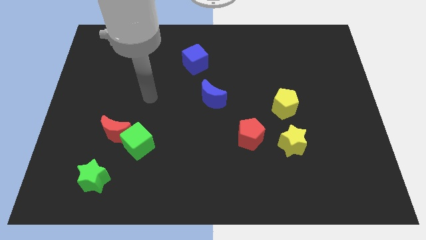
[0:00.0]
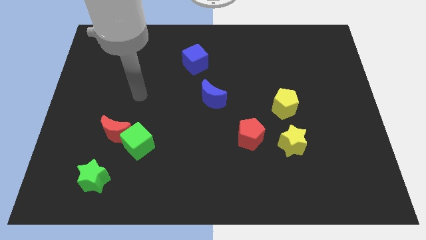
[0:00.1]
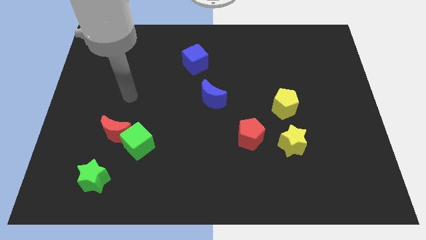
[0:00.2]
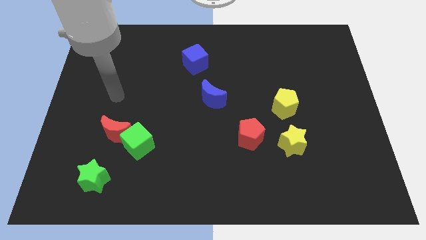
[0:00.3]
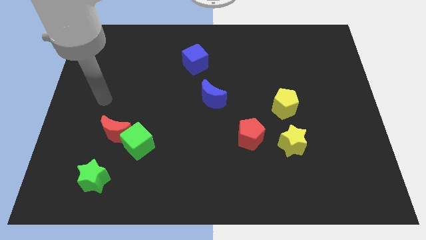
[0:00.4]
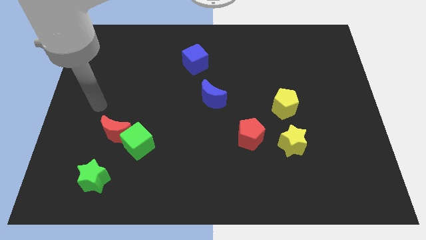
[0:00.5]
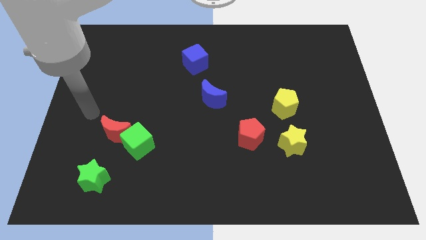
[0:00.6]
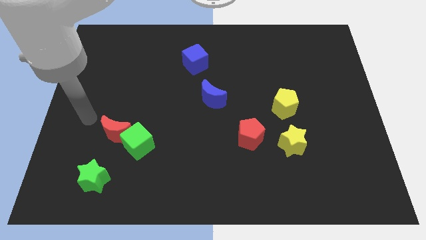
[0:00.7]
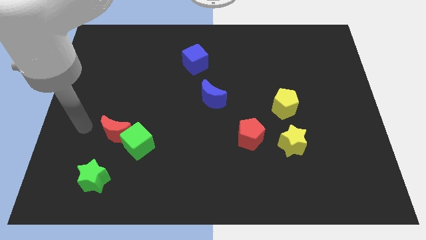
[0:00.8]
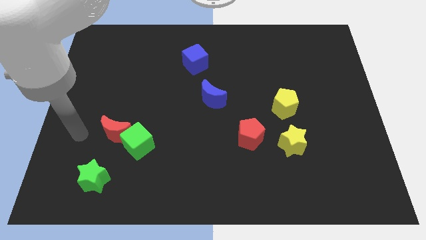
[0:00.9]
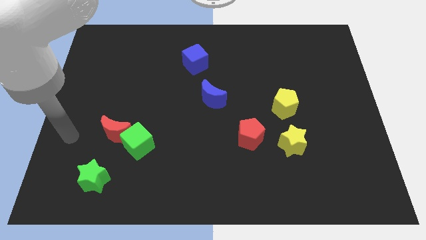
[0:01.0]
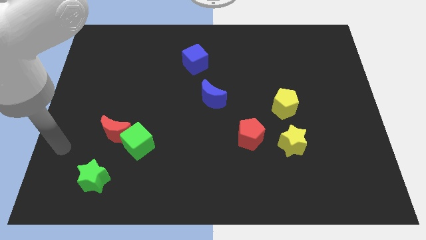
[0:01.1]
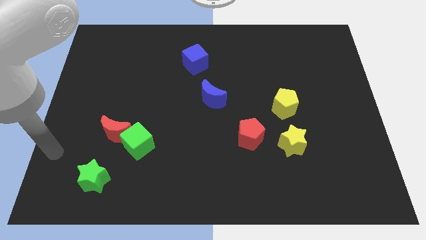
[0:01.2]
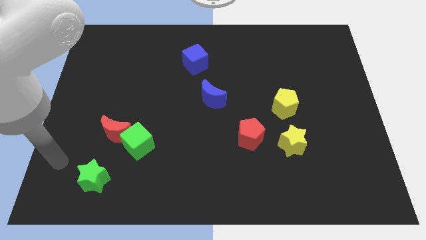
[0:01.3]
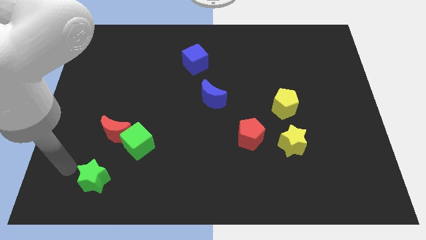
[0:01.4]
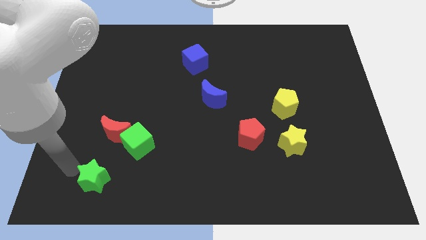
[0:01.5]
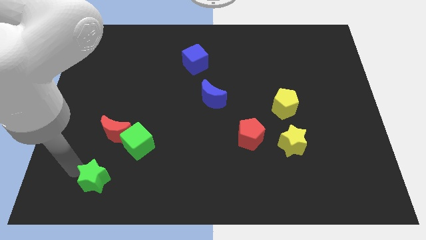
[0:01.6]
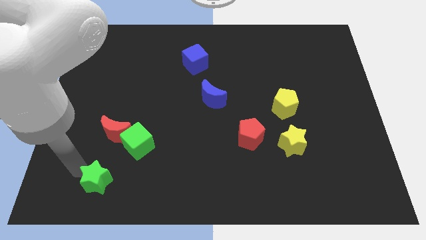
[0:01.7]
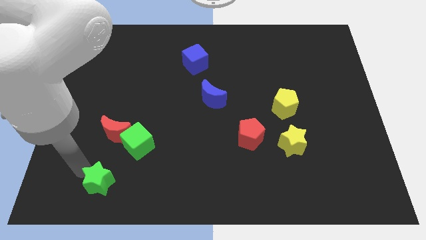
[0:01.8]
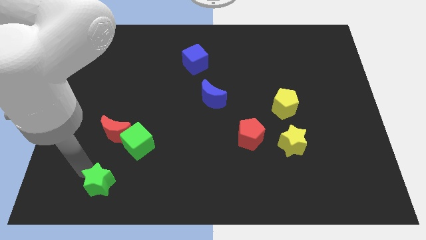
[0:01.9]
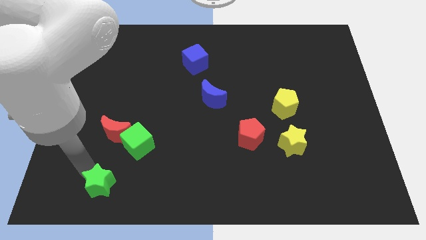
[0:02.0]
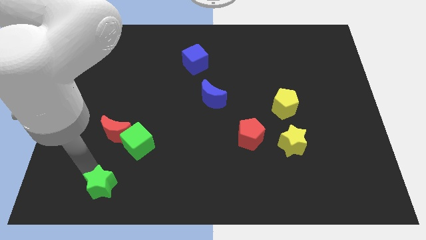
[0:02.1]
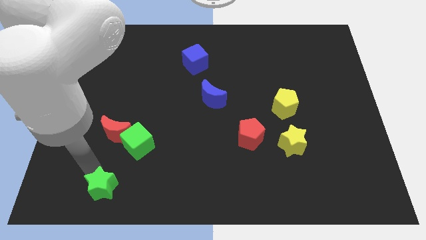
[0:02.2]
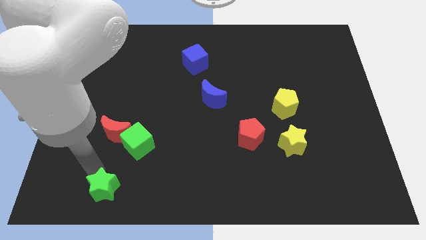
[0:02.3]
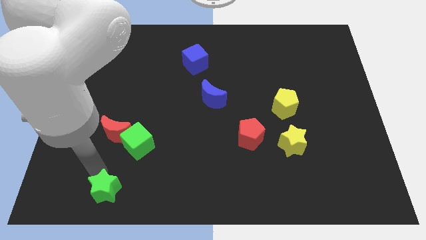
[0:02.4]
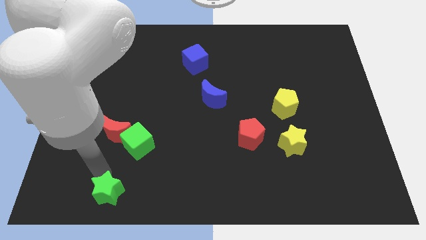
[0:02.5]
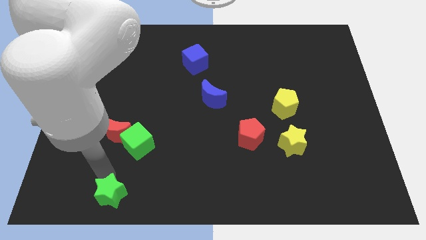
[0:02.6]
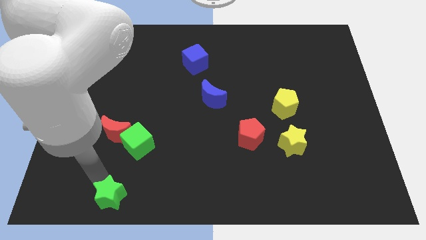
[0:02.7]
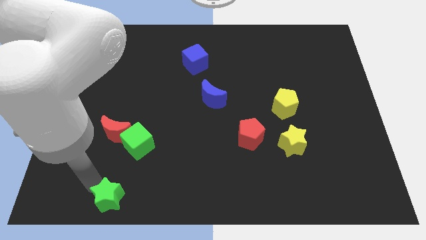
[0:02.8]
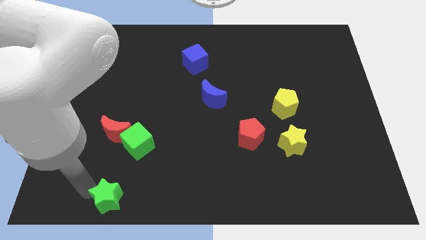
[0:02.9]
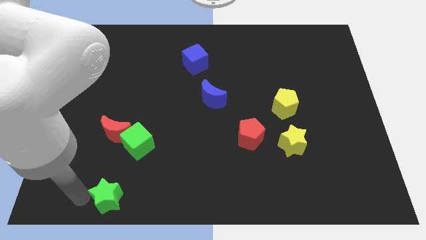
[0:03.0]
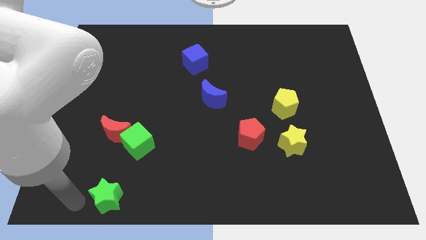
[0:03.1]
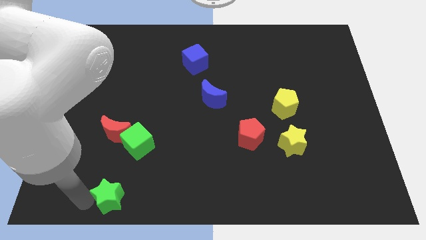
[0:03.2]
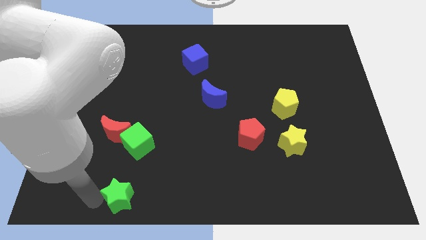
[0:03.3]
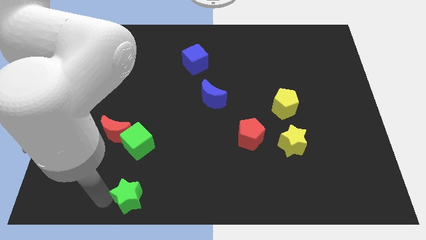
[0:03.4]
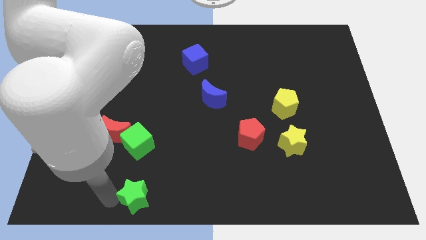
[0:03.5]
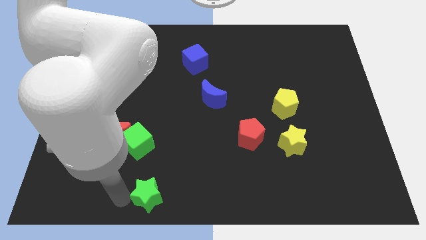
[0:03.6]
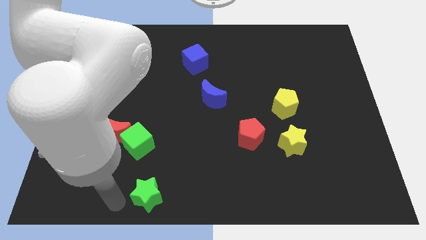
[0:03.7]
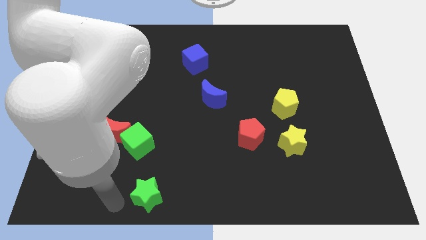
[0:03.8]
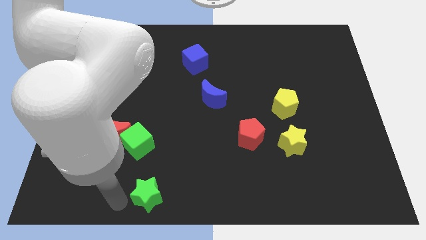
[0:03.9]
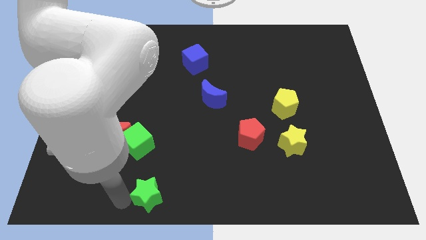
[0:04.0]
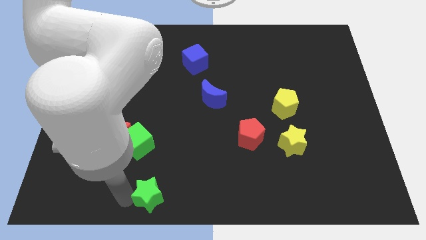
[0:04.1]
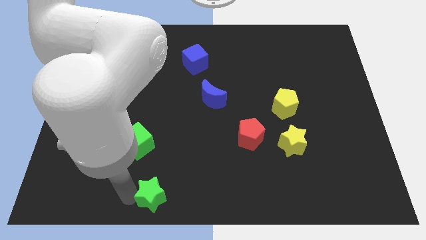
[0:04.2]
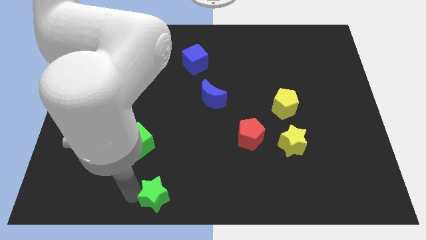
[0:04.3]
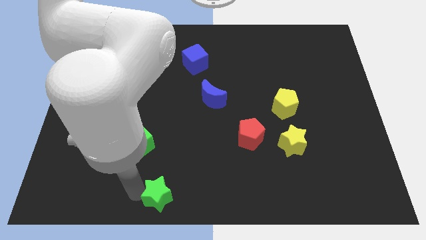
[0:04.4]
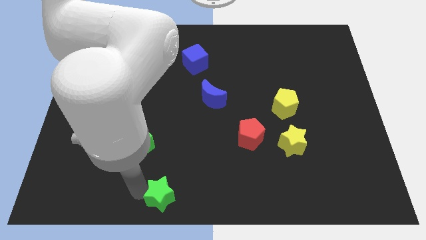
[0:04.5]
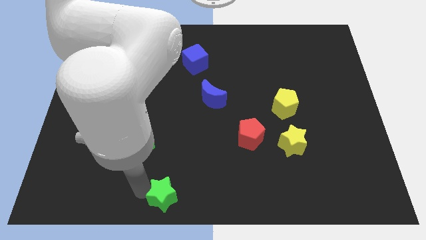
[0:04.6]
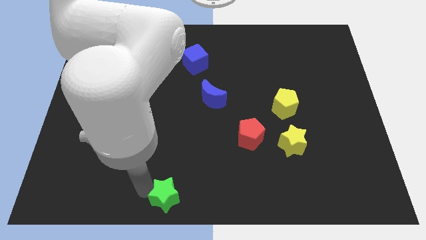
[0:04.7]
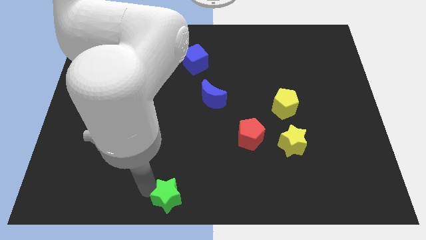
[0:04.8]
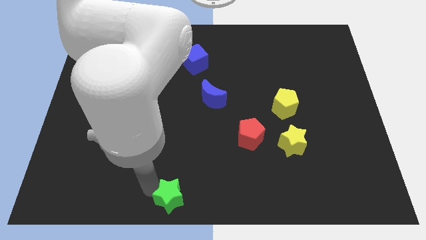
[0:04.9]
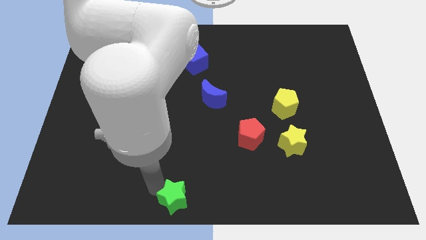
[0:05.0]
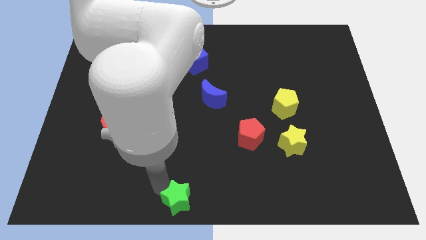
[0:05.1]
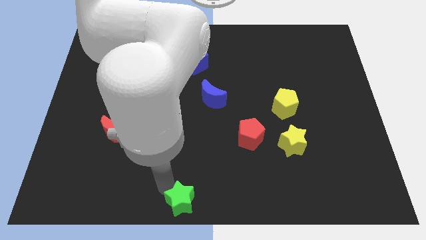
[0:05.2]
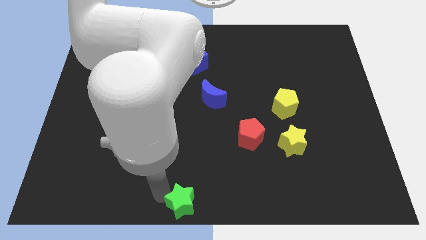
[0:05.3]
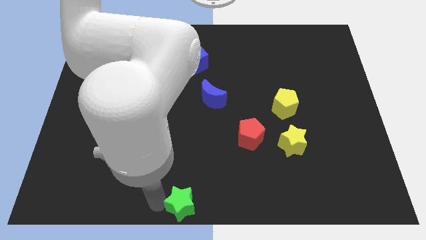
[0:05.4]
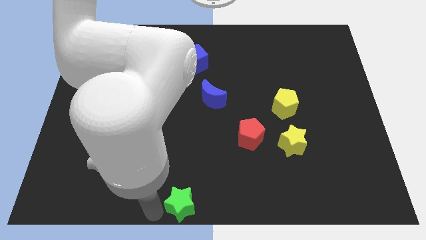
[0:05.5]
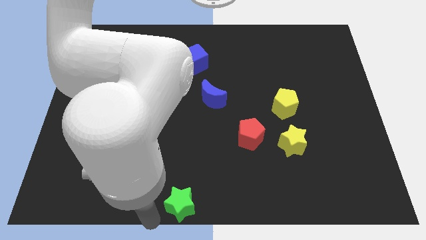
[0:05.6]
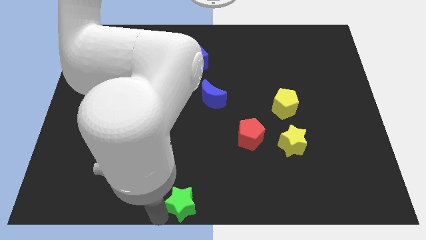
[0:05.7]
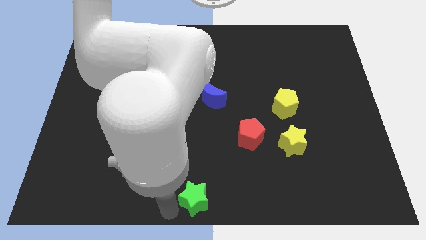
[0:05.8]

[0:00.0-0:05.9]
move the green star to the right

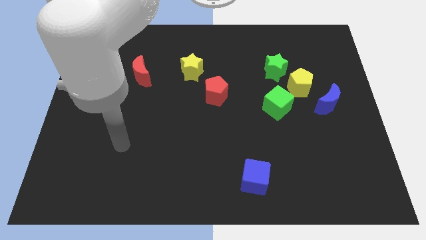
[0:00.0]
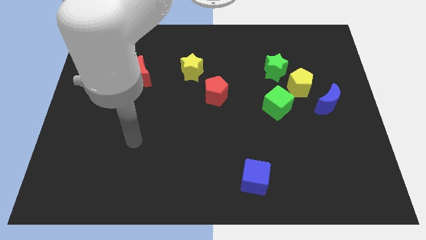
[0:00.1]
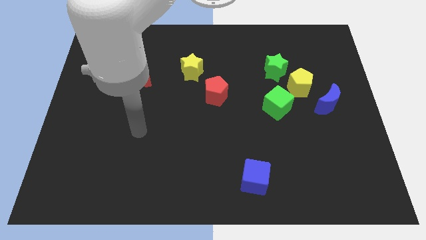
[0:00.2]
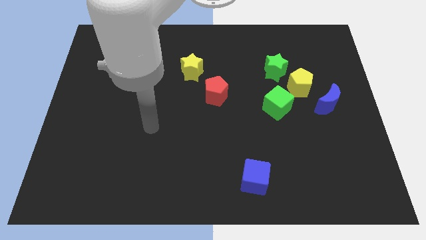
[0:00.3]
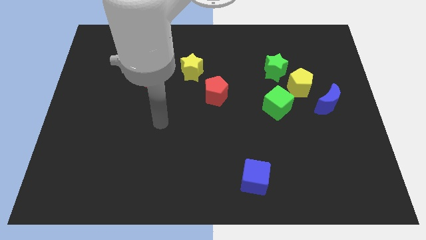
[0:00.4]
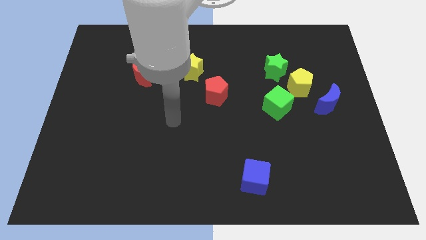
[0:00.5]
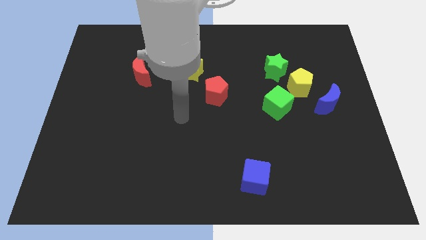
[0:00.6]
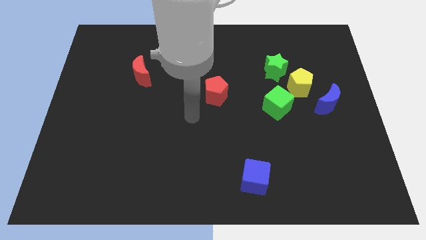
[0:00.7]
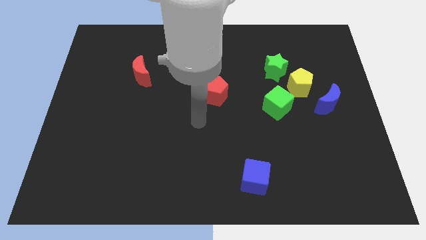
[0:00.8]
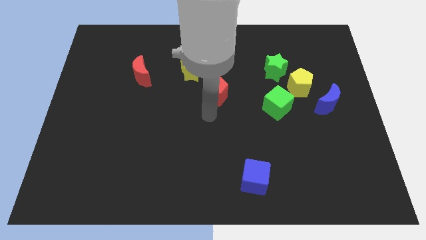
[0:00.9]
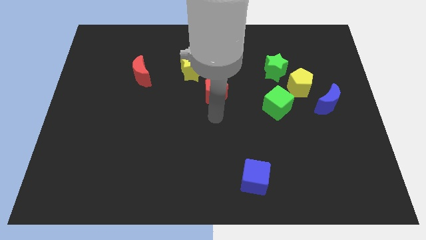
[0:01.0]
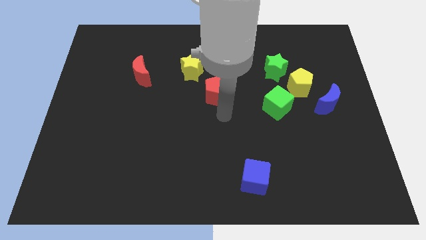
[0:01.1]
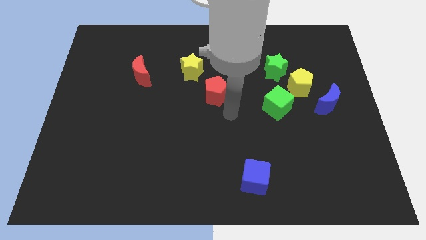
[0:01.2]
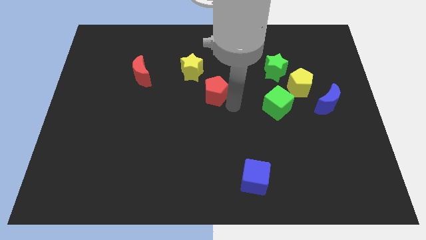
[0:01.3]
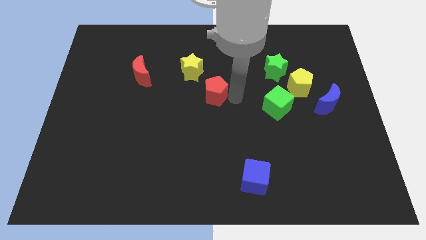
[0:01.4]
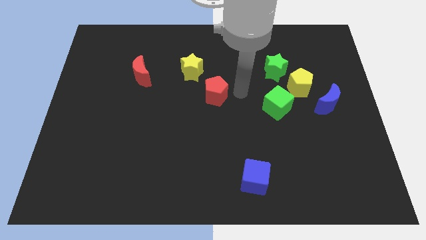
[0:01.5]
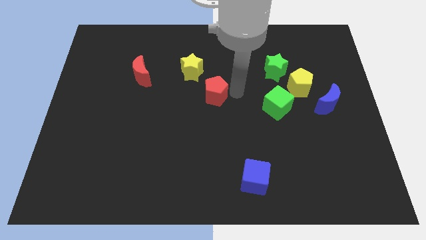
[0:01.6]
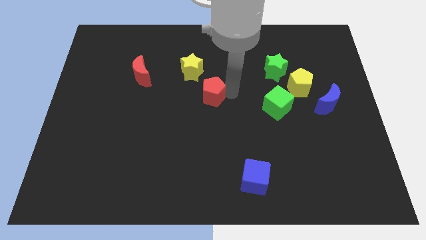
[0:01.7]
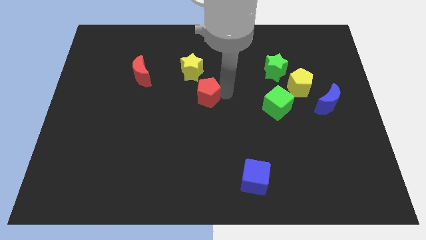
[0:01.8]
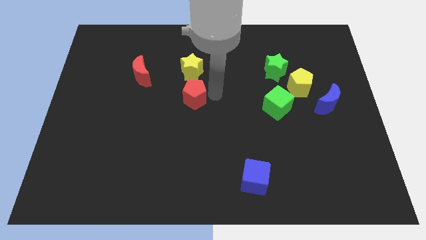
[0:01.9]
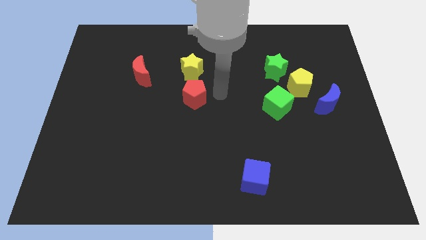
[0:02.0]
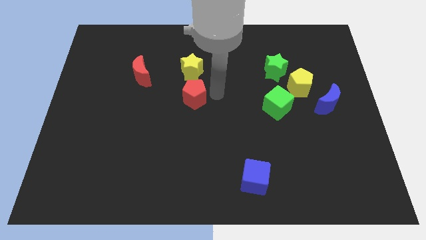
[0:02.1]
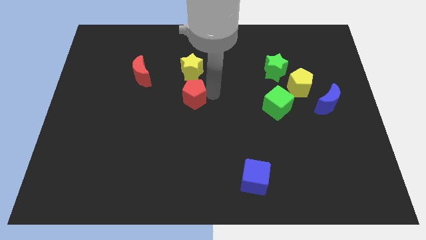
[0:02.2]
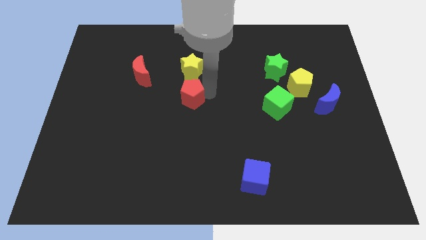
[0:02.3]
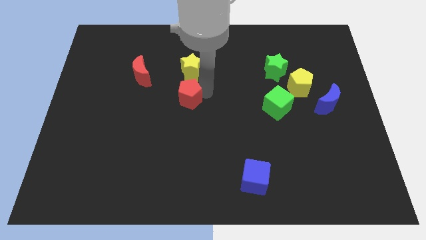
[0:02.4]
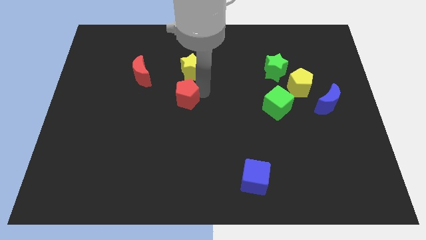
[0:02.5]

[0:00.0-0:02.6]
slide the red pentagon left a little bit
